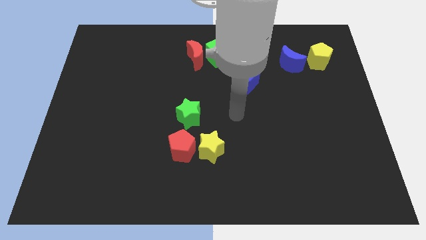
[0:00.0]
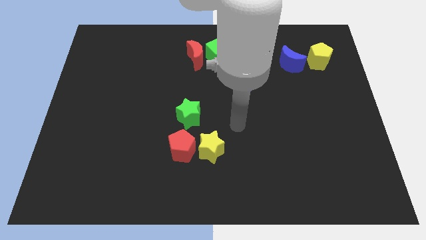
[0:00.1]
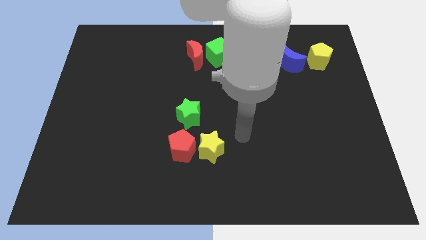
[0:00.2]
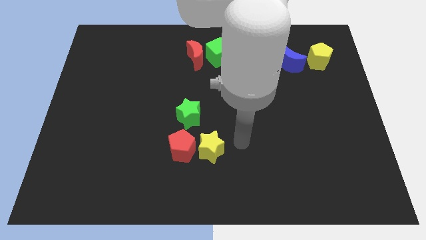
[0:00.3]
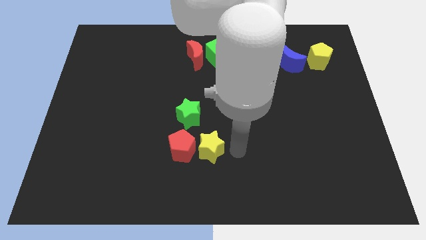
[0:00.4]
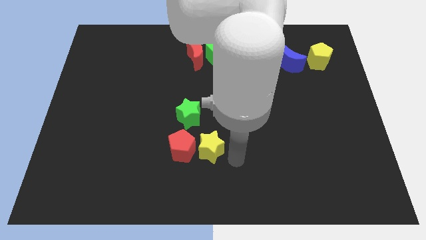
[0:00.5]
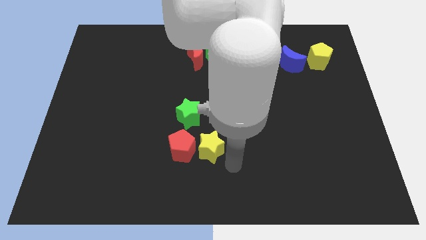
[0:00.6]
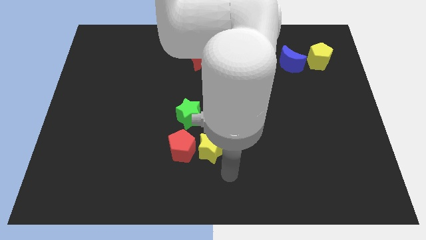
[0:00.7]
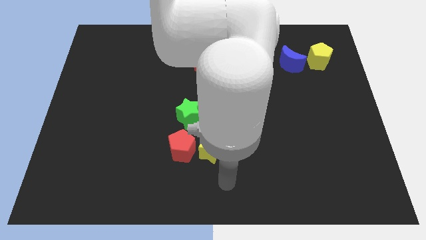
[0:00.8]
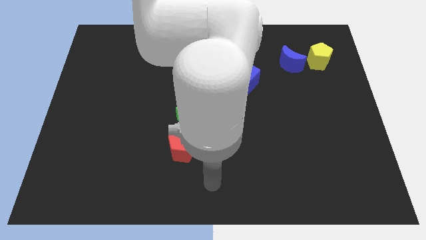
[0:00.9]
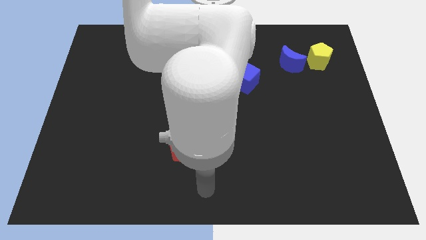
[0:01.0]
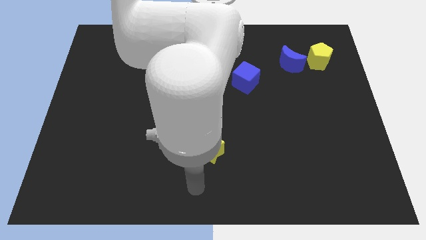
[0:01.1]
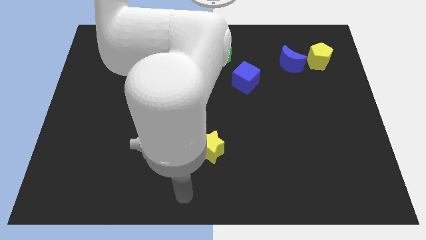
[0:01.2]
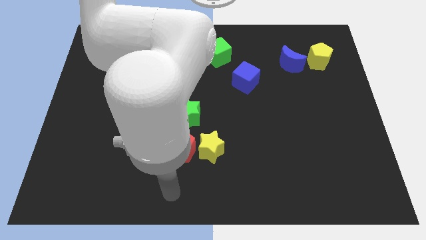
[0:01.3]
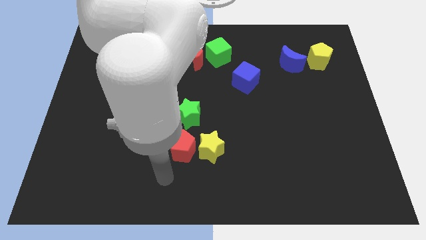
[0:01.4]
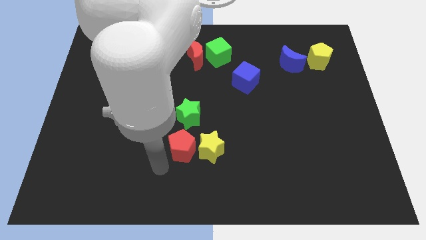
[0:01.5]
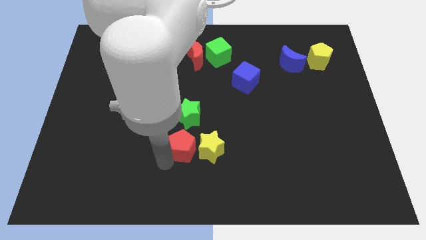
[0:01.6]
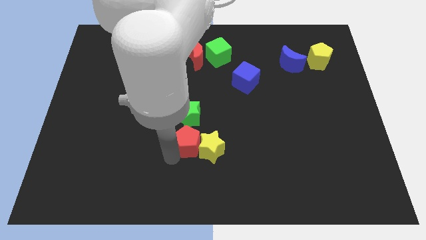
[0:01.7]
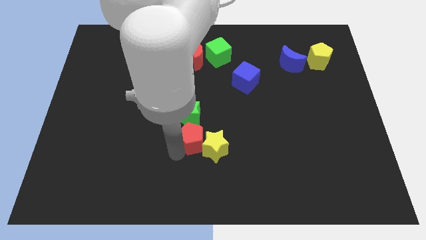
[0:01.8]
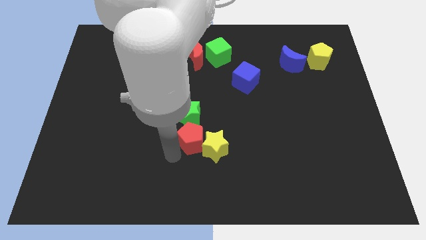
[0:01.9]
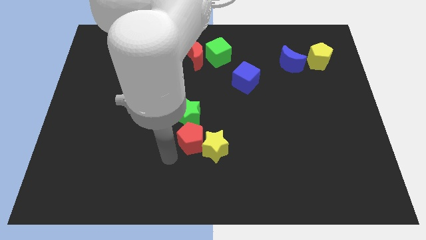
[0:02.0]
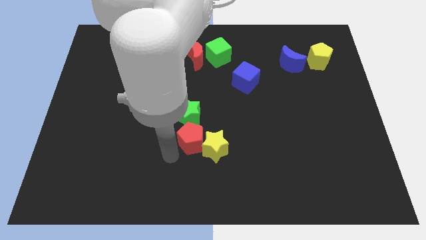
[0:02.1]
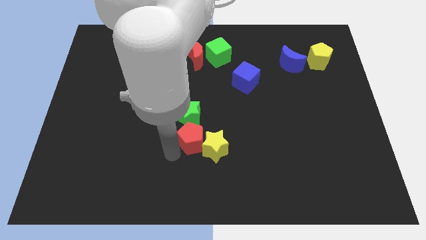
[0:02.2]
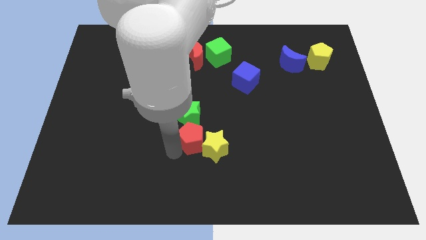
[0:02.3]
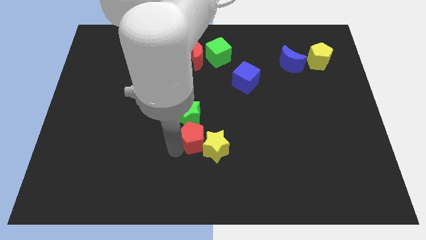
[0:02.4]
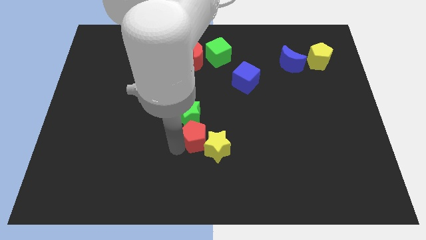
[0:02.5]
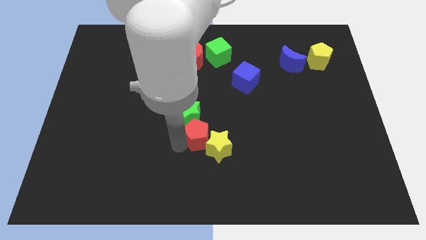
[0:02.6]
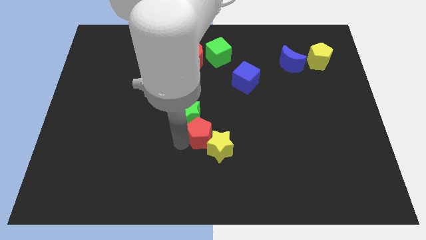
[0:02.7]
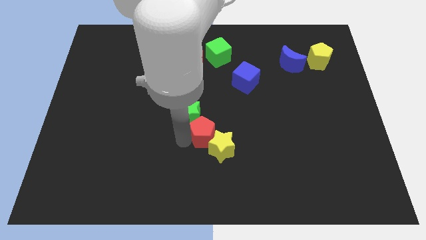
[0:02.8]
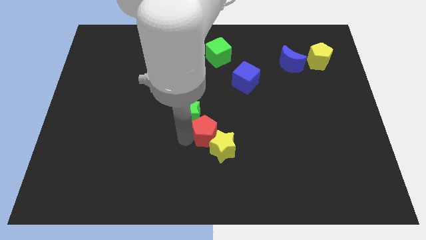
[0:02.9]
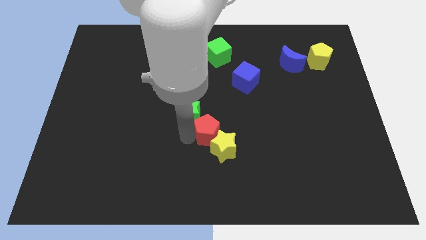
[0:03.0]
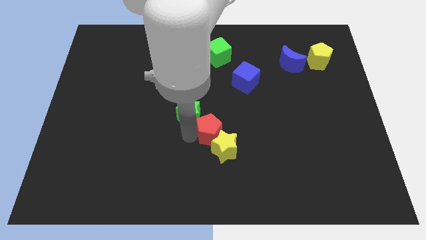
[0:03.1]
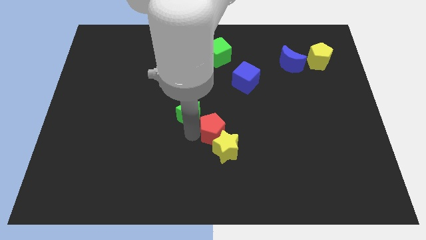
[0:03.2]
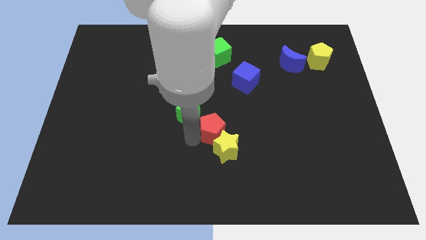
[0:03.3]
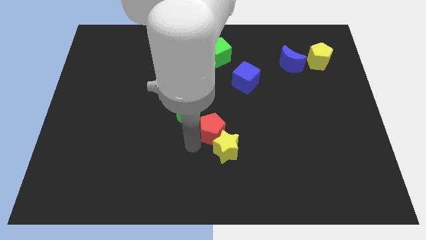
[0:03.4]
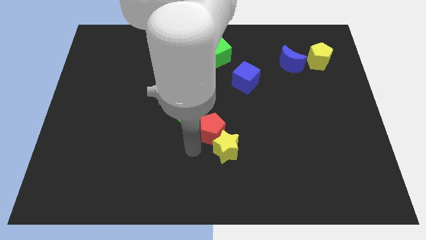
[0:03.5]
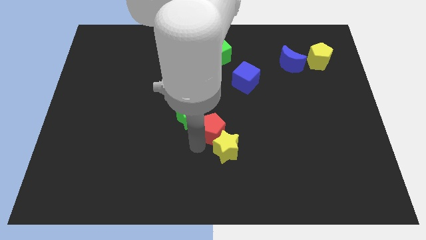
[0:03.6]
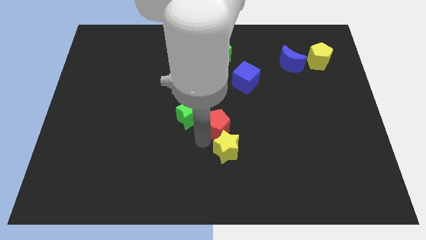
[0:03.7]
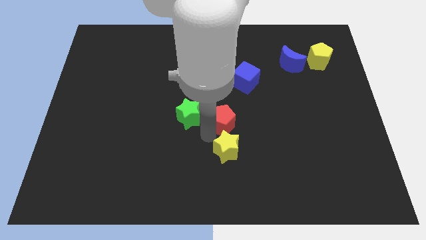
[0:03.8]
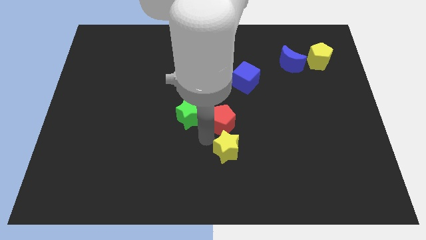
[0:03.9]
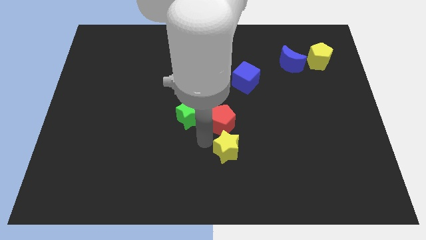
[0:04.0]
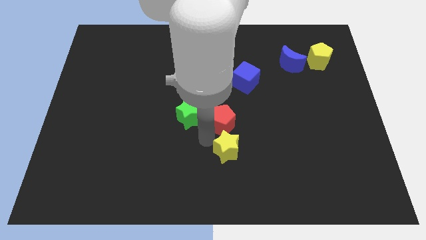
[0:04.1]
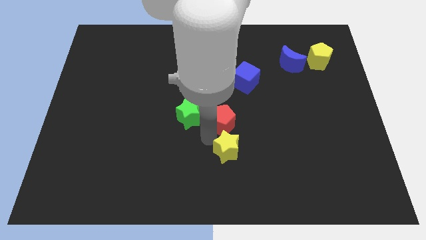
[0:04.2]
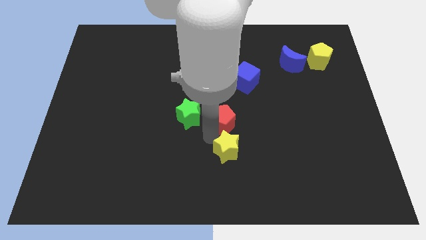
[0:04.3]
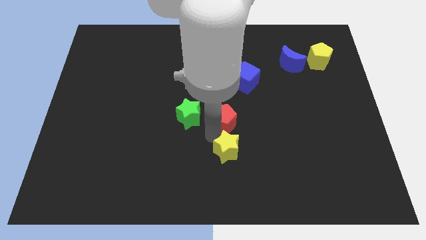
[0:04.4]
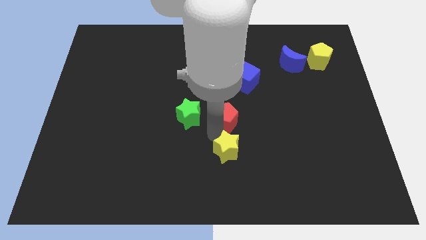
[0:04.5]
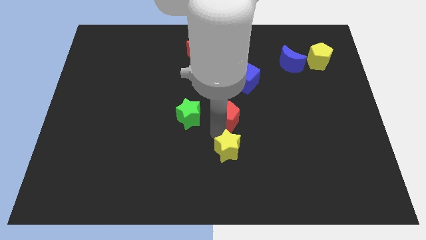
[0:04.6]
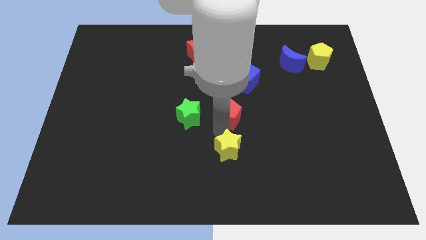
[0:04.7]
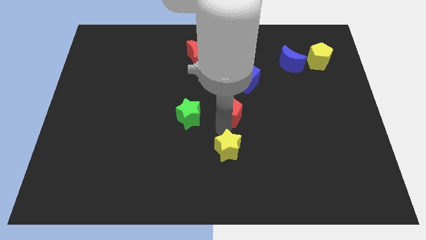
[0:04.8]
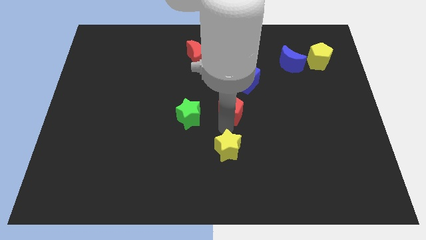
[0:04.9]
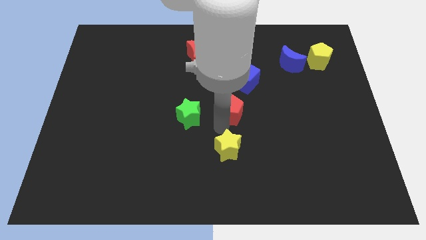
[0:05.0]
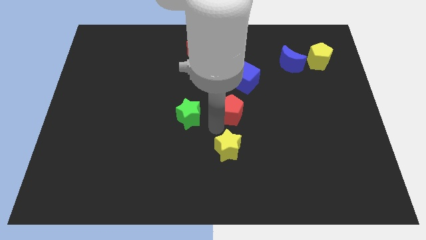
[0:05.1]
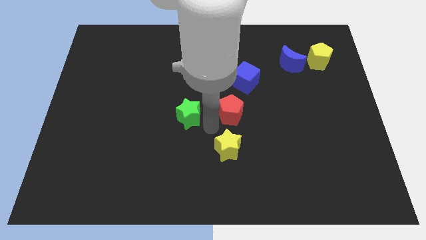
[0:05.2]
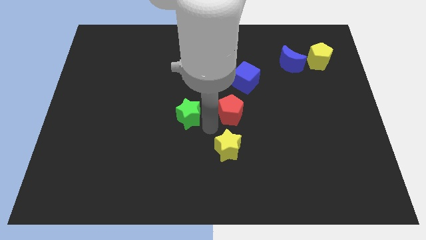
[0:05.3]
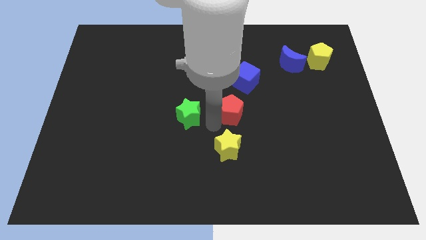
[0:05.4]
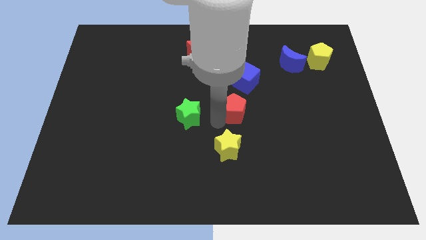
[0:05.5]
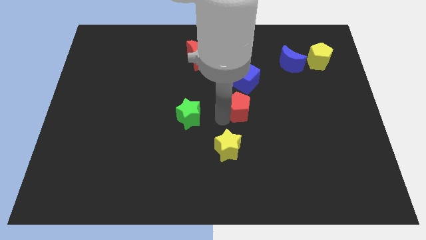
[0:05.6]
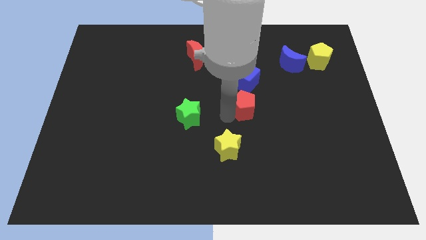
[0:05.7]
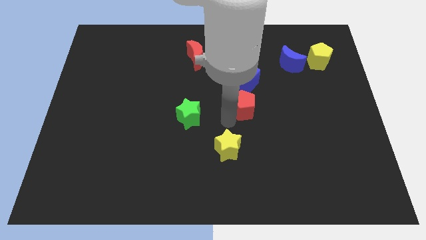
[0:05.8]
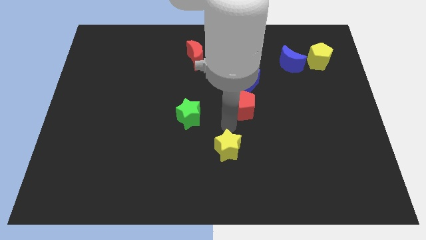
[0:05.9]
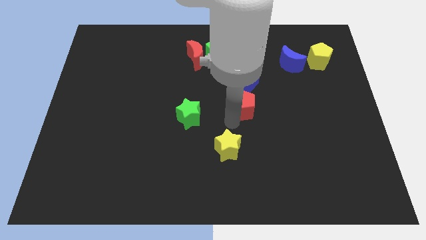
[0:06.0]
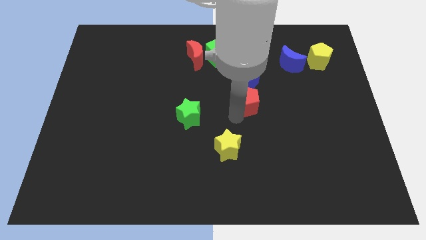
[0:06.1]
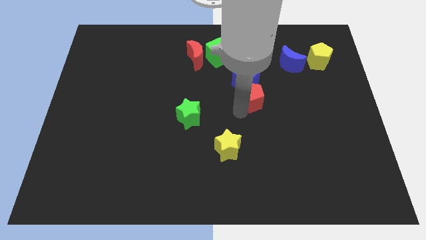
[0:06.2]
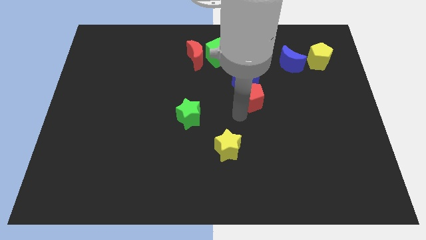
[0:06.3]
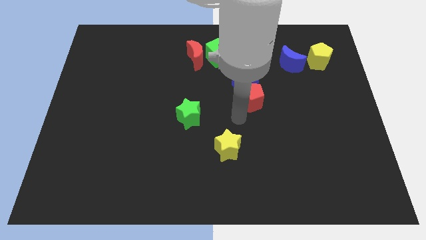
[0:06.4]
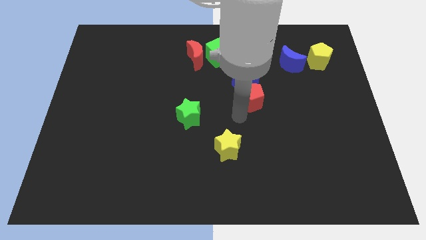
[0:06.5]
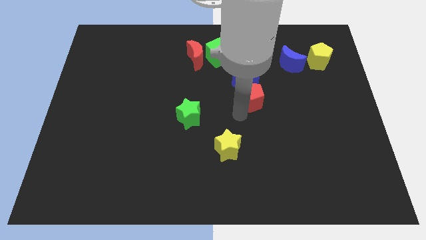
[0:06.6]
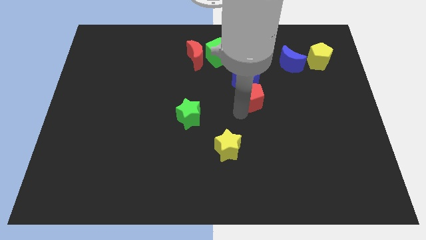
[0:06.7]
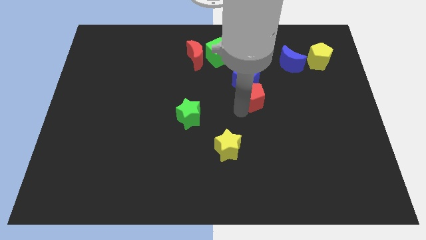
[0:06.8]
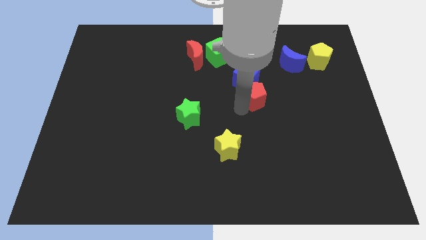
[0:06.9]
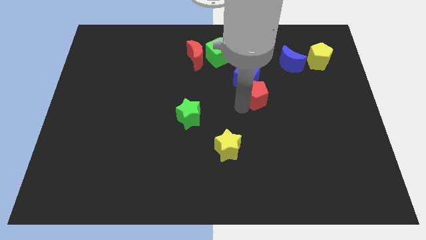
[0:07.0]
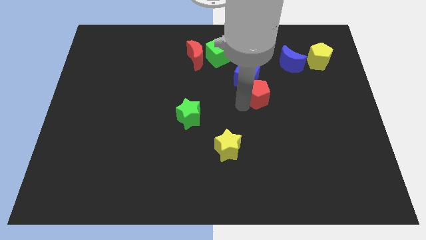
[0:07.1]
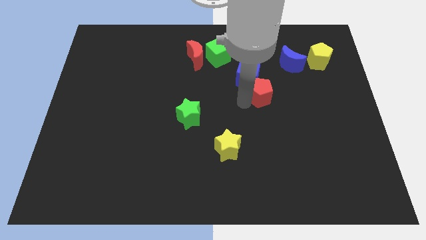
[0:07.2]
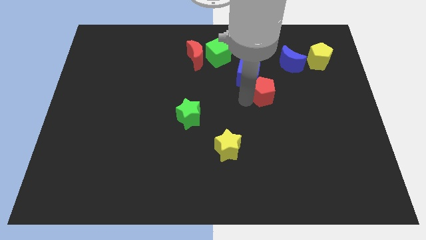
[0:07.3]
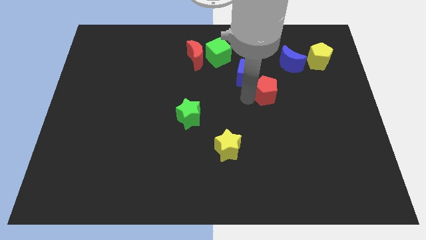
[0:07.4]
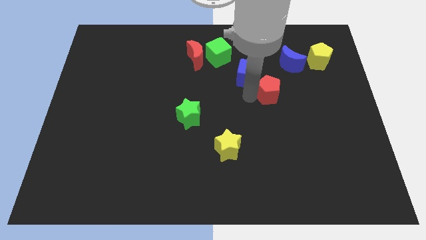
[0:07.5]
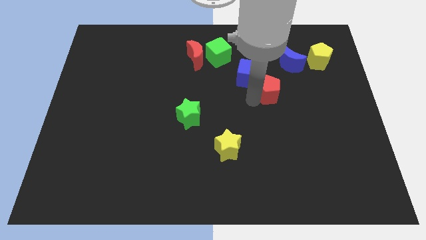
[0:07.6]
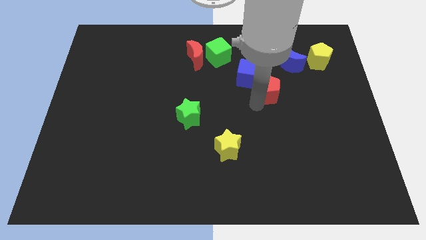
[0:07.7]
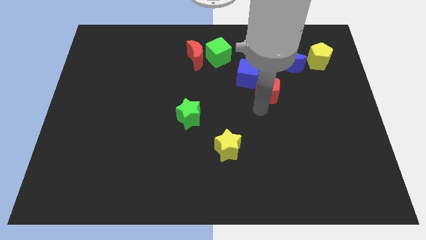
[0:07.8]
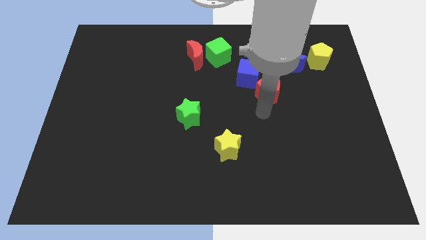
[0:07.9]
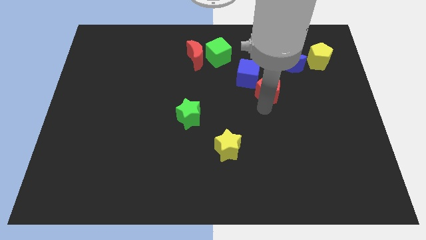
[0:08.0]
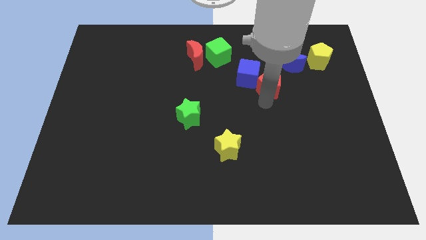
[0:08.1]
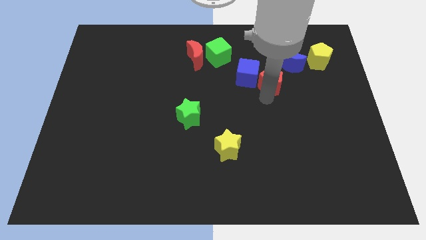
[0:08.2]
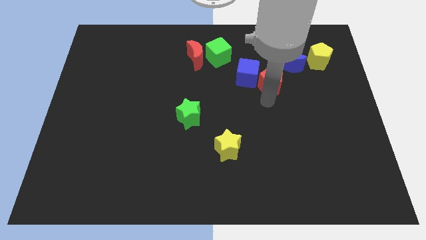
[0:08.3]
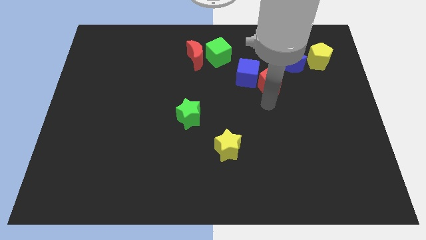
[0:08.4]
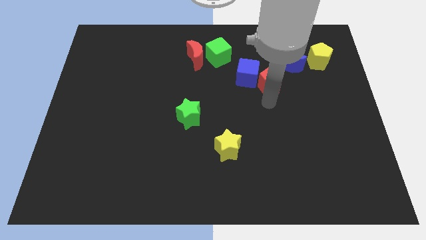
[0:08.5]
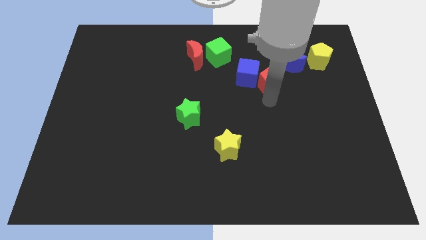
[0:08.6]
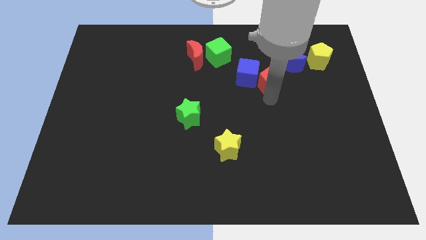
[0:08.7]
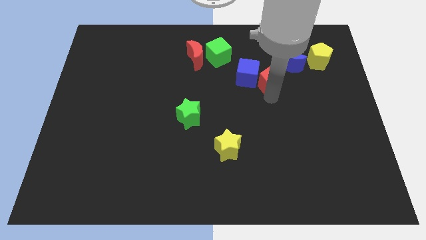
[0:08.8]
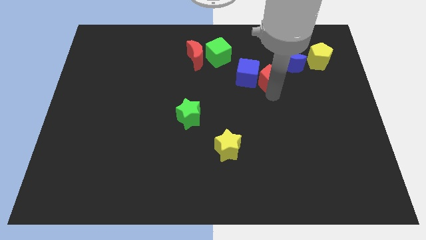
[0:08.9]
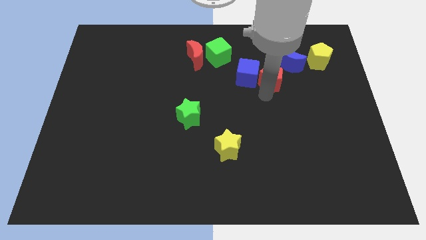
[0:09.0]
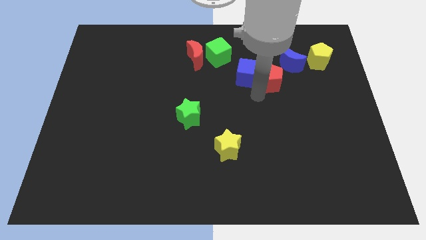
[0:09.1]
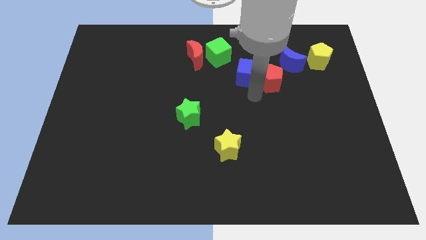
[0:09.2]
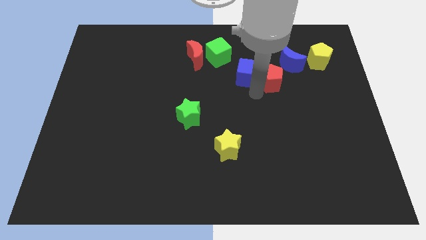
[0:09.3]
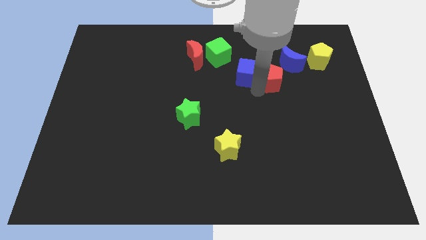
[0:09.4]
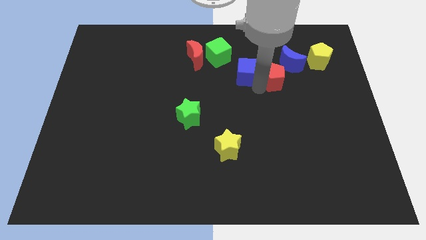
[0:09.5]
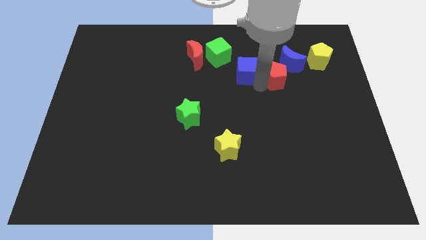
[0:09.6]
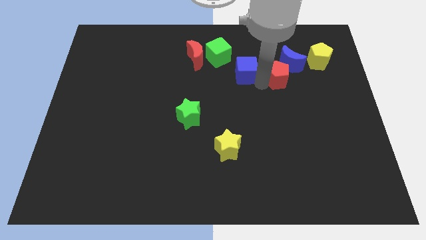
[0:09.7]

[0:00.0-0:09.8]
push the red pentagon towards the blue moon
